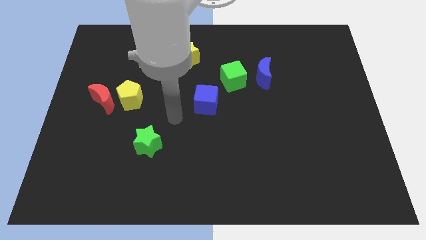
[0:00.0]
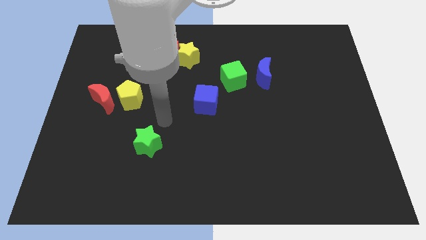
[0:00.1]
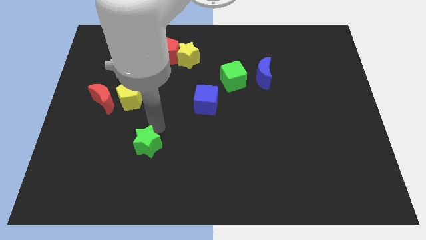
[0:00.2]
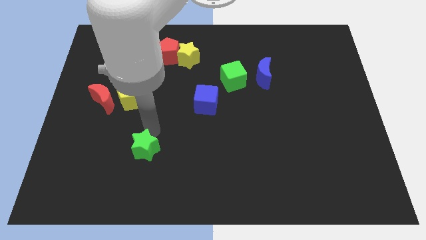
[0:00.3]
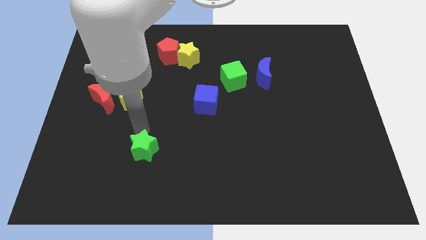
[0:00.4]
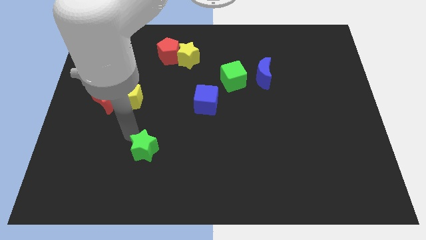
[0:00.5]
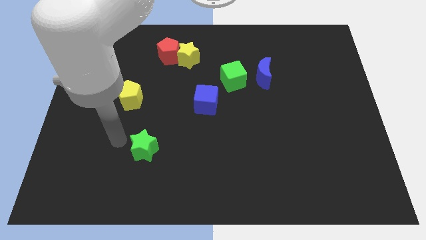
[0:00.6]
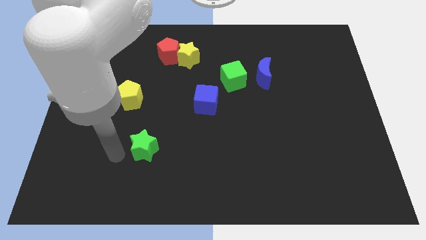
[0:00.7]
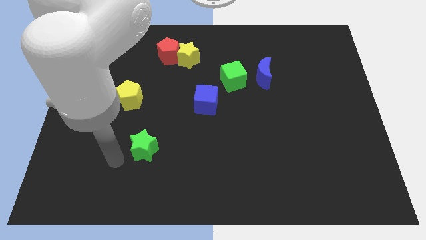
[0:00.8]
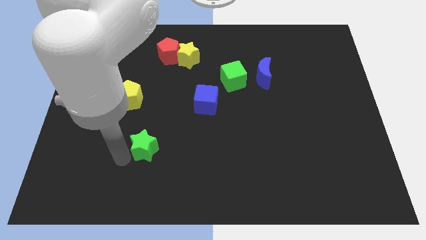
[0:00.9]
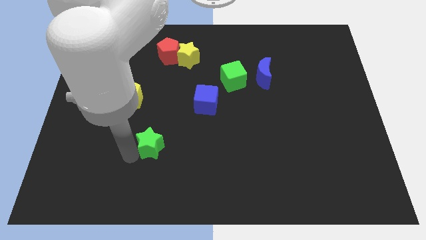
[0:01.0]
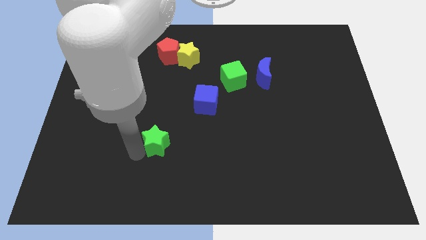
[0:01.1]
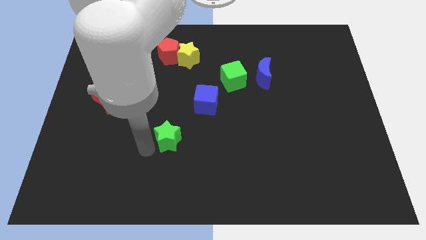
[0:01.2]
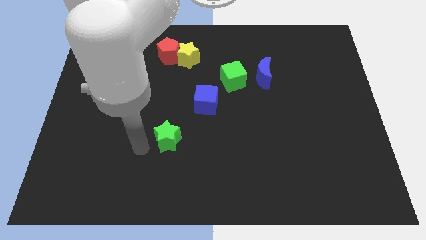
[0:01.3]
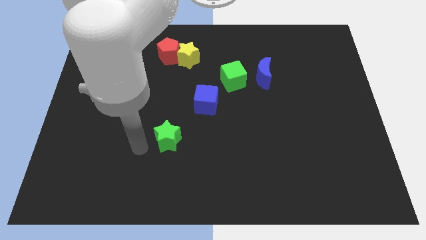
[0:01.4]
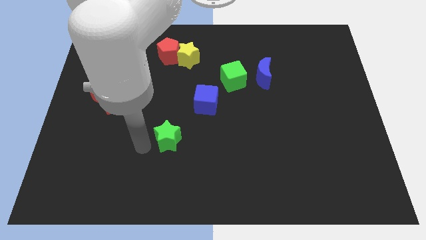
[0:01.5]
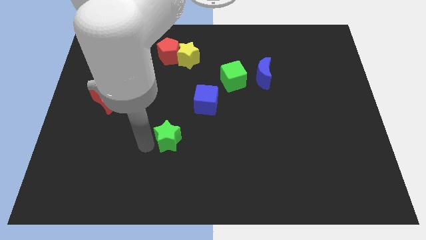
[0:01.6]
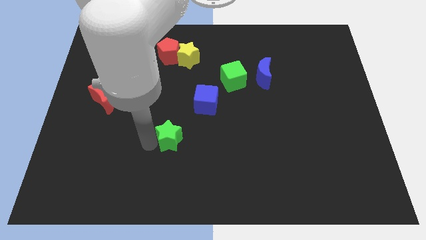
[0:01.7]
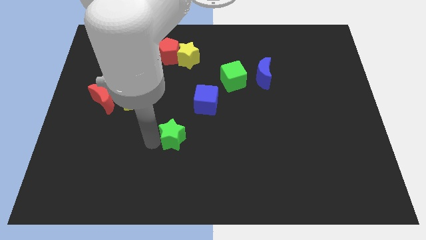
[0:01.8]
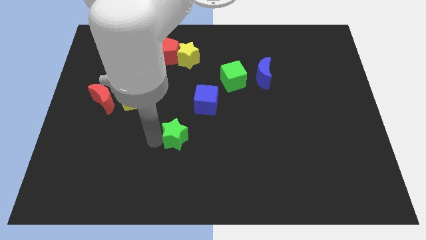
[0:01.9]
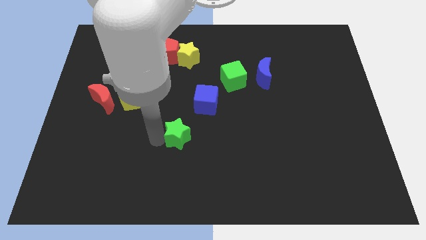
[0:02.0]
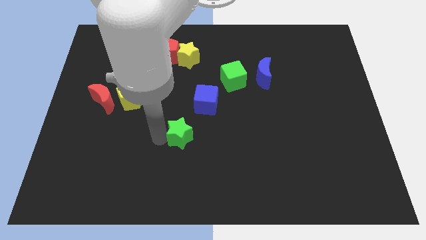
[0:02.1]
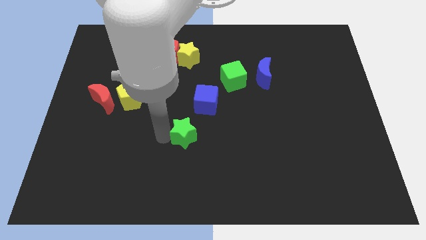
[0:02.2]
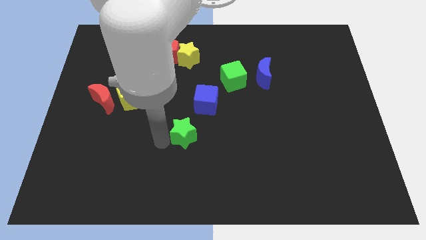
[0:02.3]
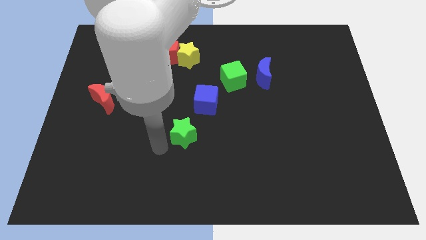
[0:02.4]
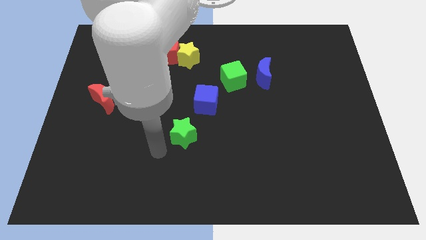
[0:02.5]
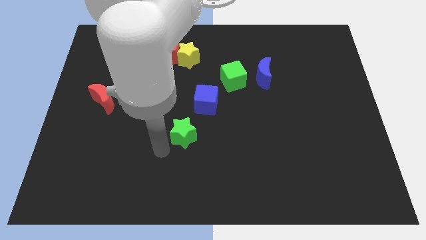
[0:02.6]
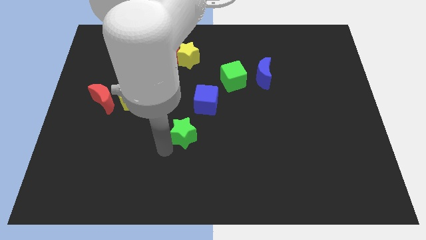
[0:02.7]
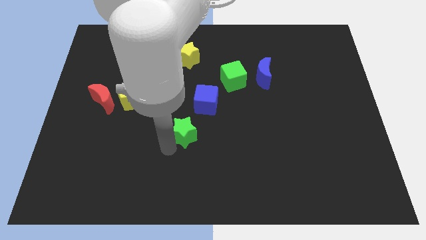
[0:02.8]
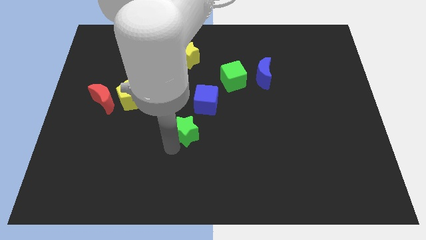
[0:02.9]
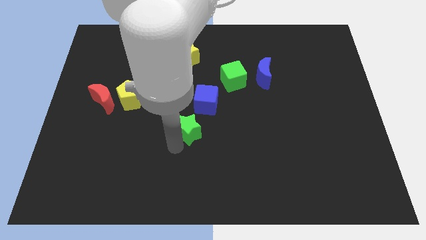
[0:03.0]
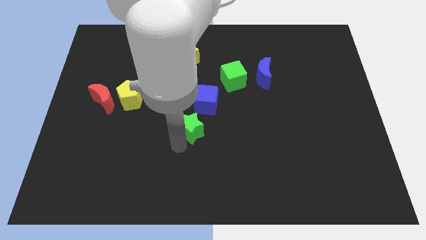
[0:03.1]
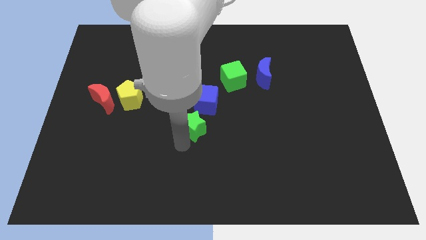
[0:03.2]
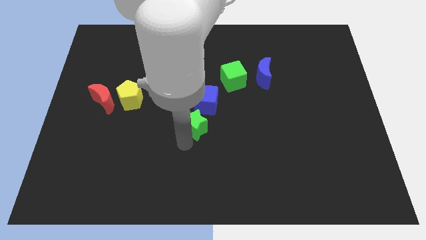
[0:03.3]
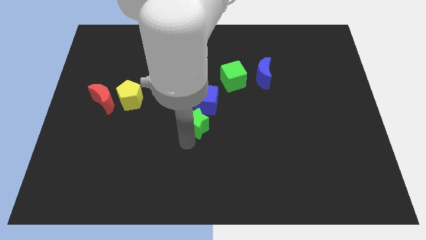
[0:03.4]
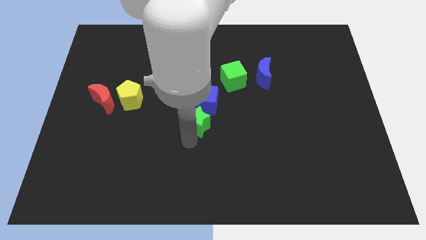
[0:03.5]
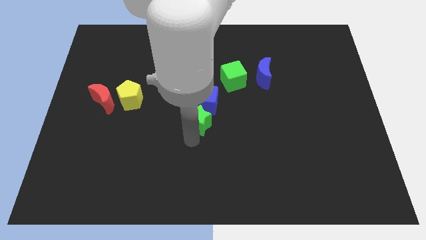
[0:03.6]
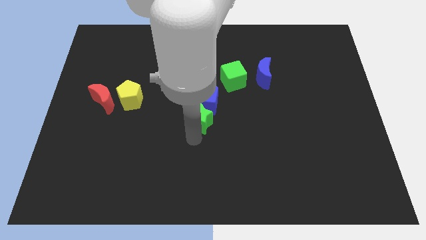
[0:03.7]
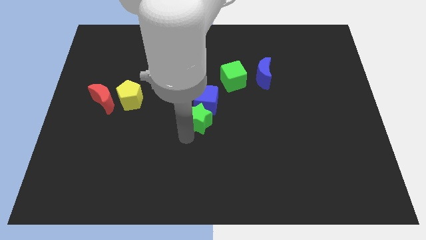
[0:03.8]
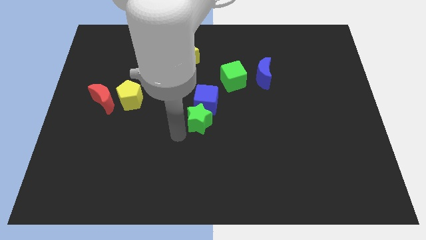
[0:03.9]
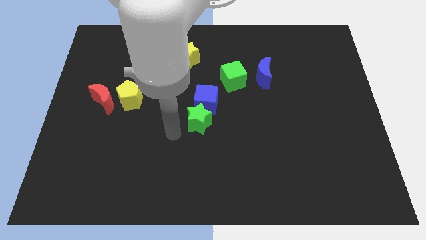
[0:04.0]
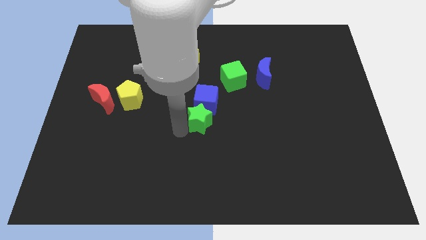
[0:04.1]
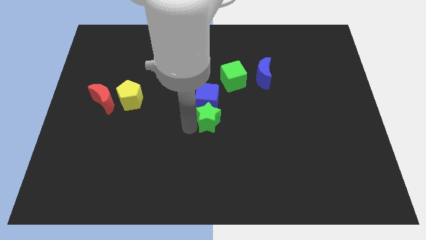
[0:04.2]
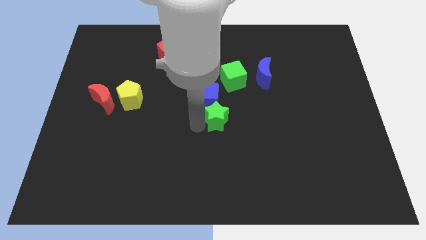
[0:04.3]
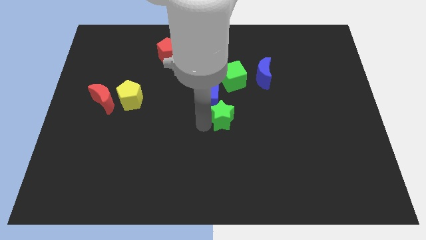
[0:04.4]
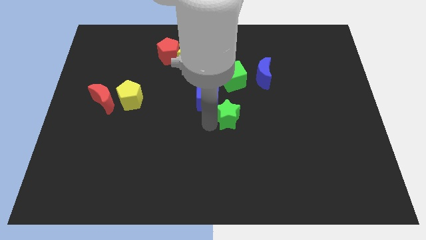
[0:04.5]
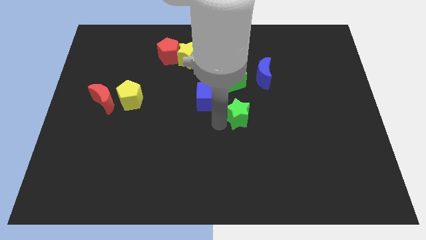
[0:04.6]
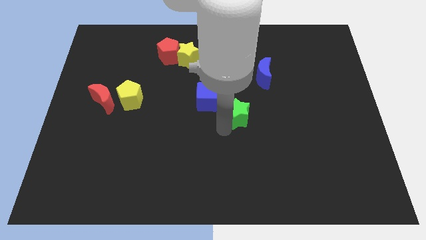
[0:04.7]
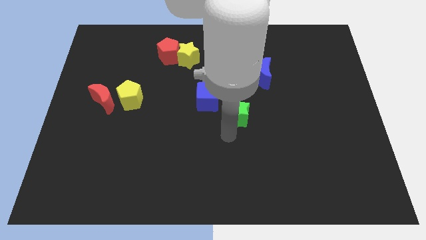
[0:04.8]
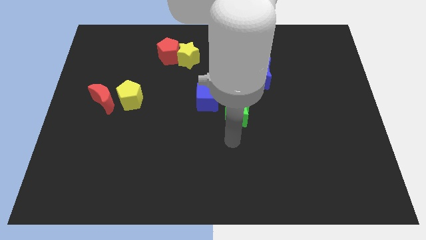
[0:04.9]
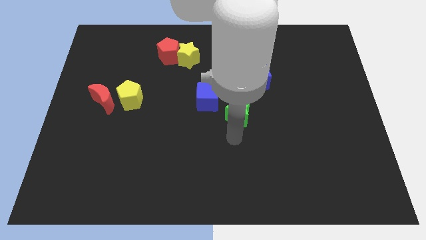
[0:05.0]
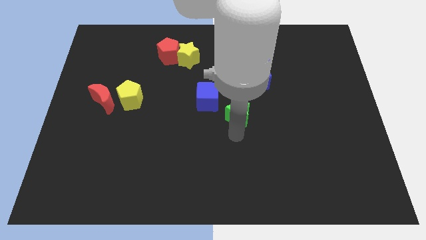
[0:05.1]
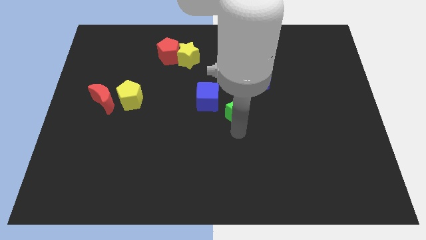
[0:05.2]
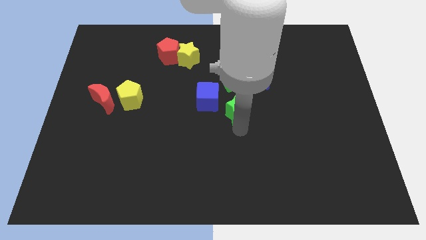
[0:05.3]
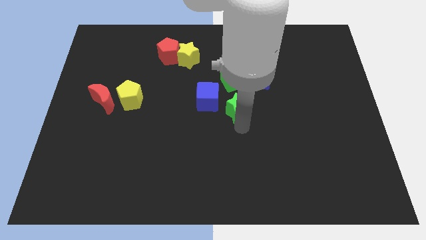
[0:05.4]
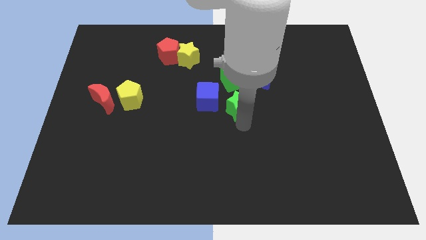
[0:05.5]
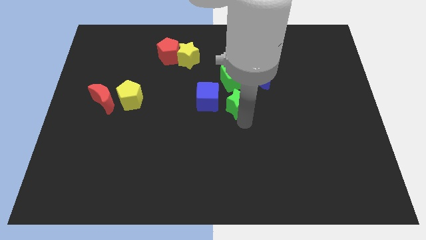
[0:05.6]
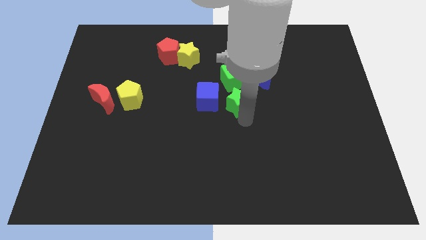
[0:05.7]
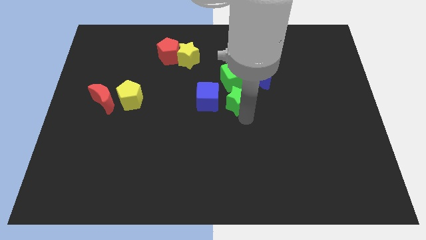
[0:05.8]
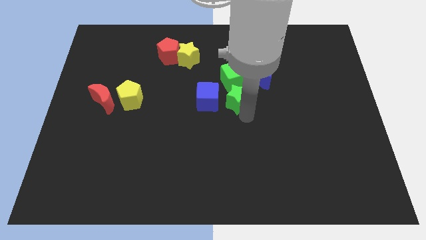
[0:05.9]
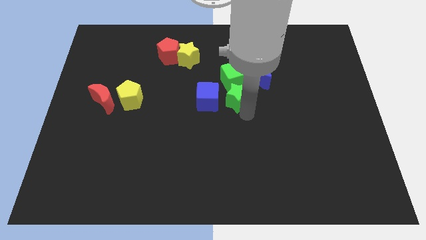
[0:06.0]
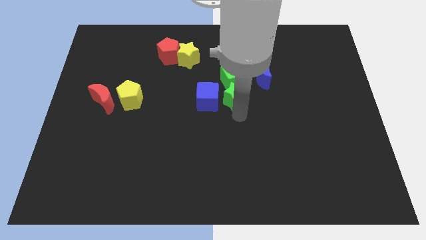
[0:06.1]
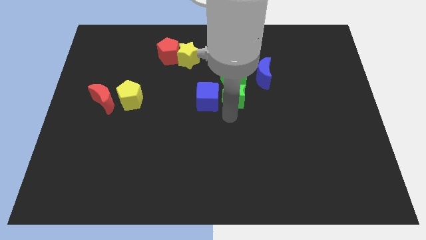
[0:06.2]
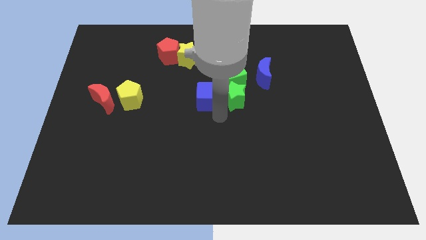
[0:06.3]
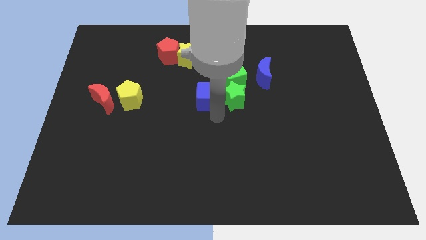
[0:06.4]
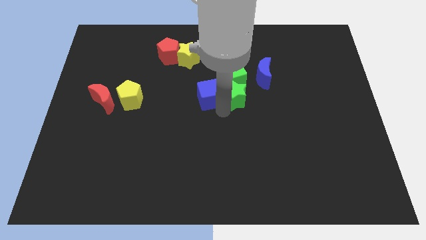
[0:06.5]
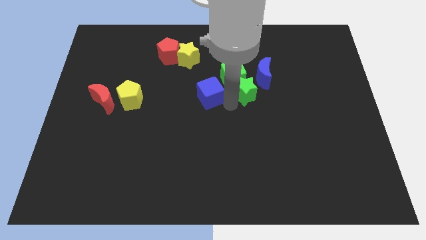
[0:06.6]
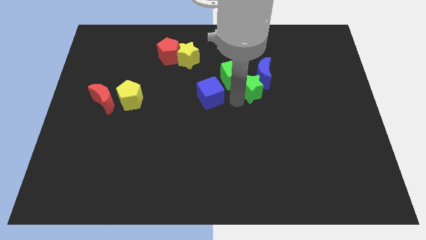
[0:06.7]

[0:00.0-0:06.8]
put the green star close to the blue moon

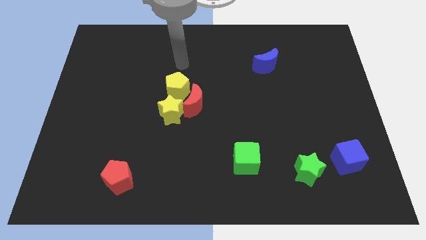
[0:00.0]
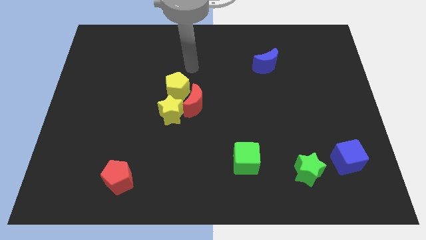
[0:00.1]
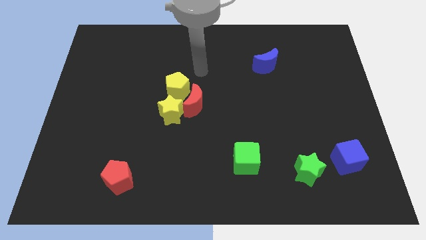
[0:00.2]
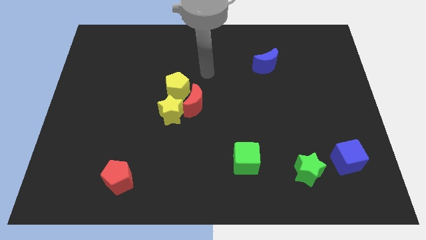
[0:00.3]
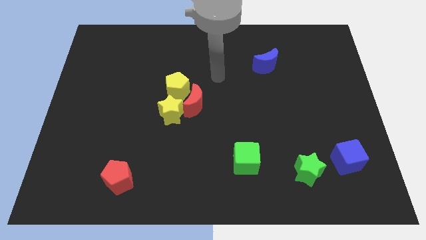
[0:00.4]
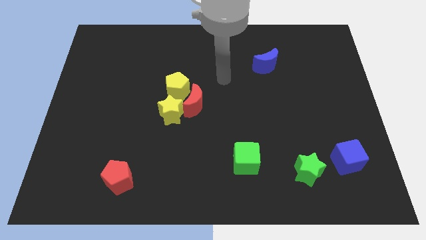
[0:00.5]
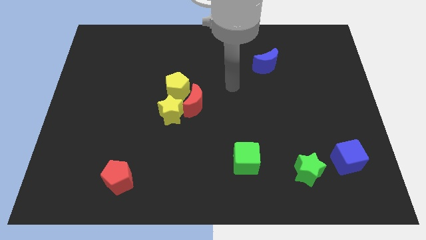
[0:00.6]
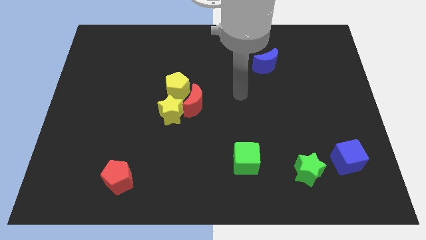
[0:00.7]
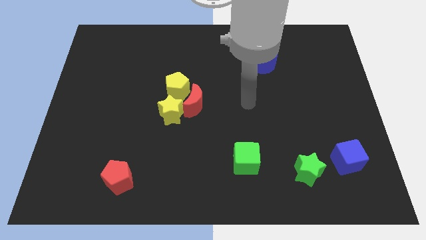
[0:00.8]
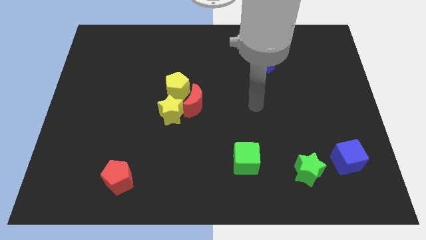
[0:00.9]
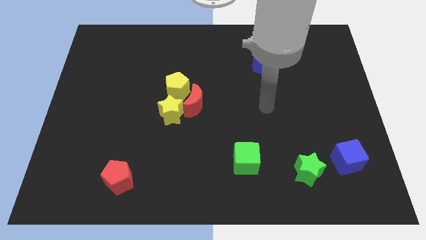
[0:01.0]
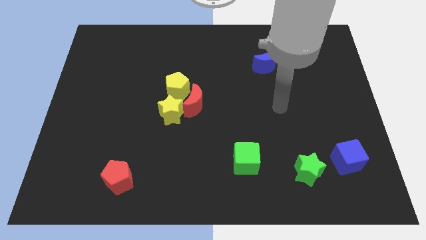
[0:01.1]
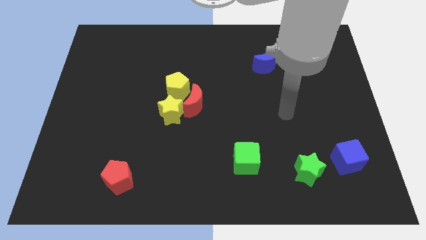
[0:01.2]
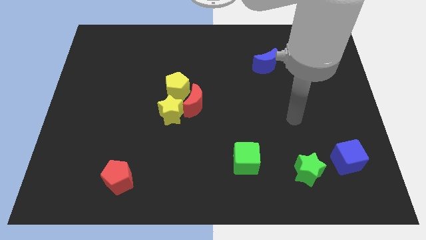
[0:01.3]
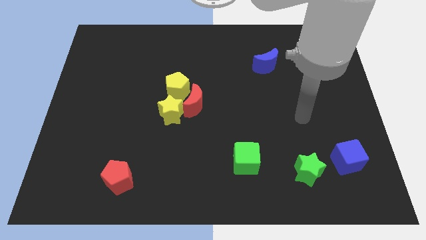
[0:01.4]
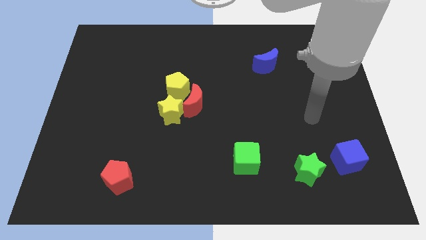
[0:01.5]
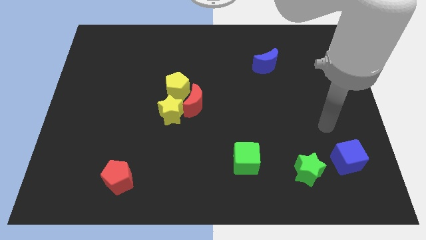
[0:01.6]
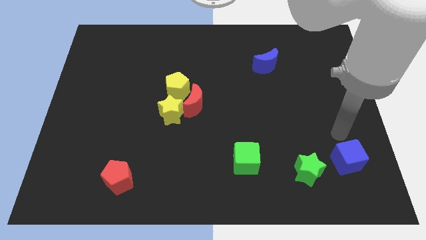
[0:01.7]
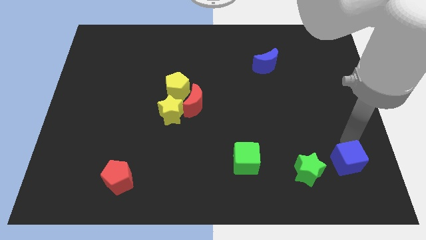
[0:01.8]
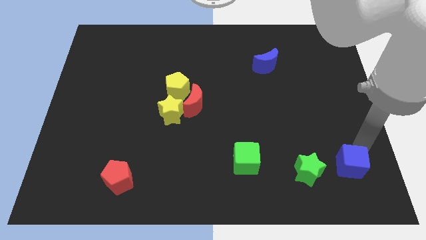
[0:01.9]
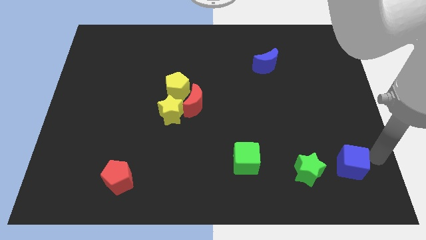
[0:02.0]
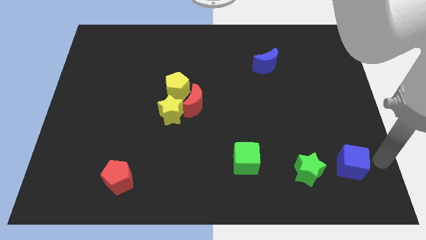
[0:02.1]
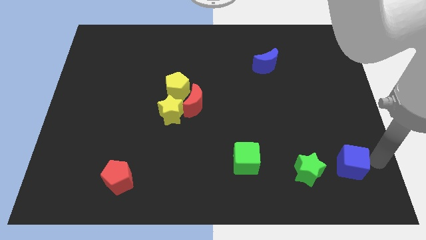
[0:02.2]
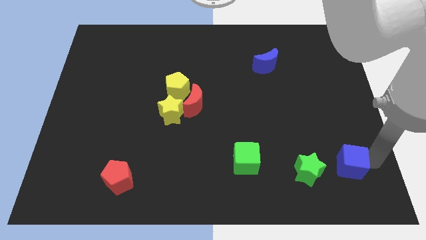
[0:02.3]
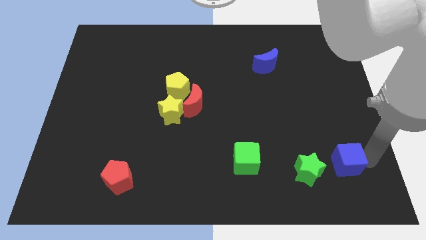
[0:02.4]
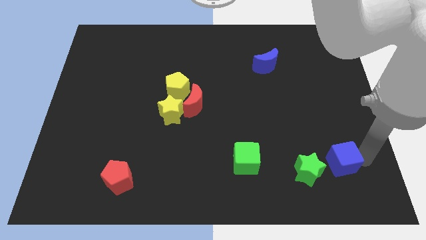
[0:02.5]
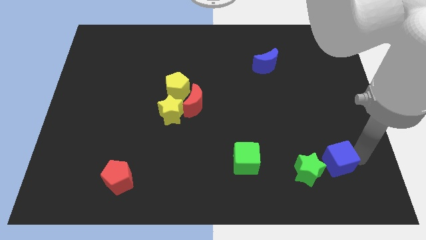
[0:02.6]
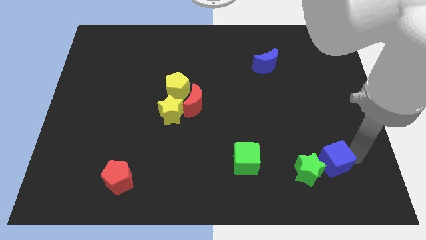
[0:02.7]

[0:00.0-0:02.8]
put the blue cube close to the green star
